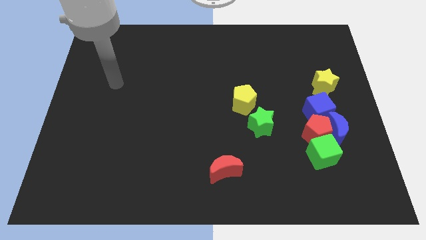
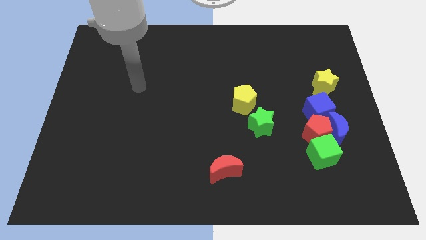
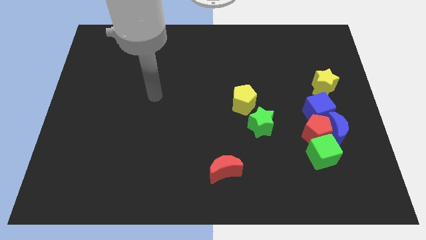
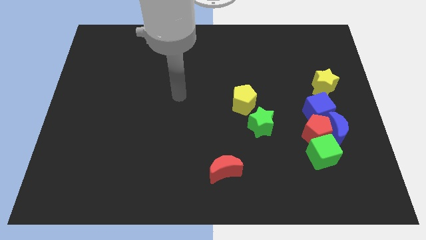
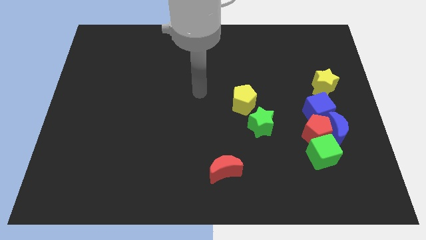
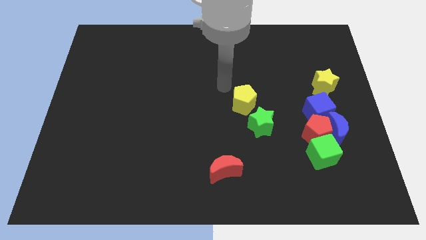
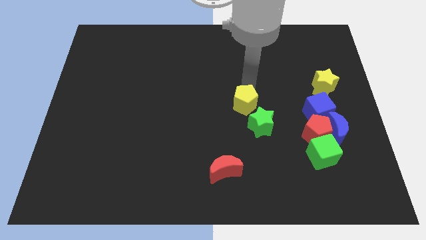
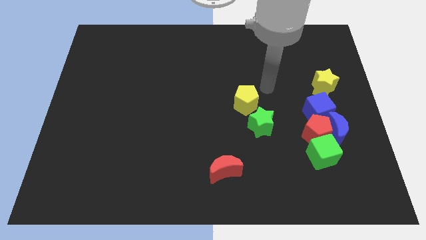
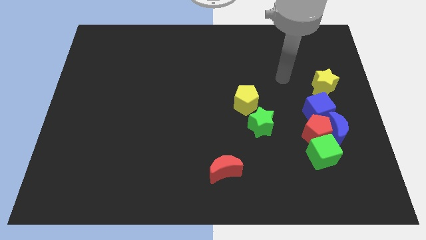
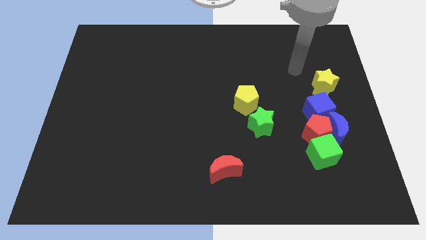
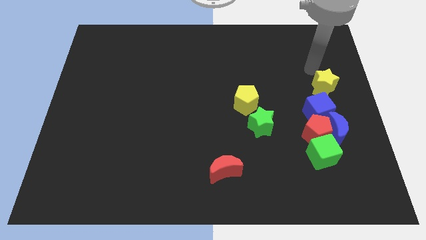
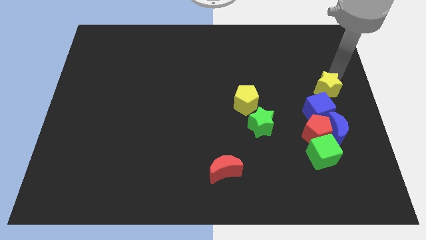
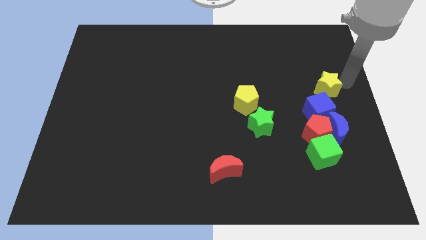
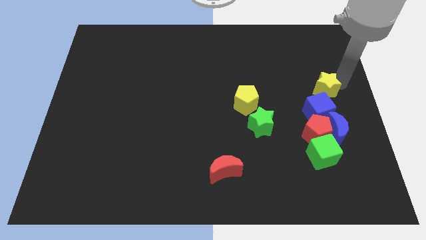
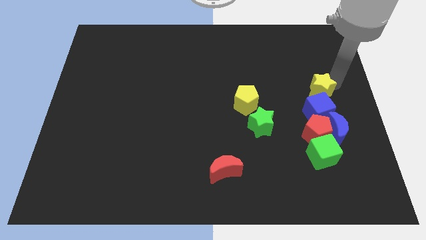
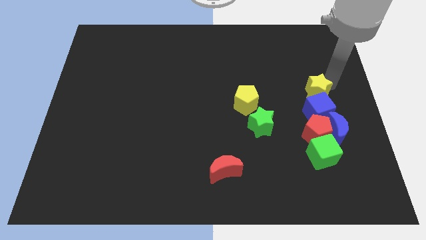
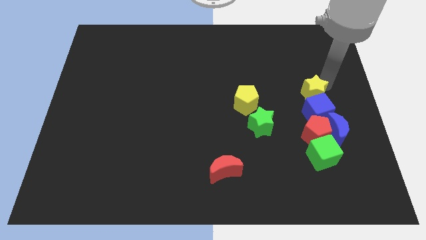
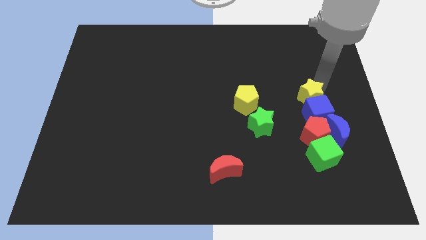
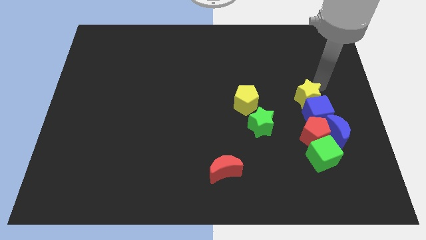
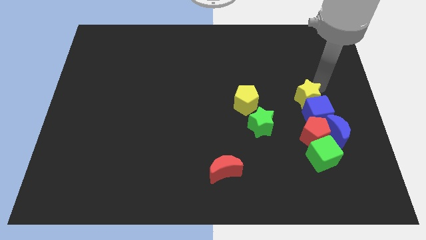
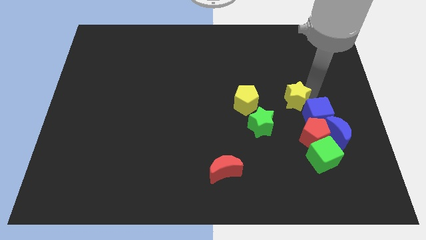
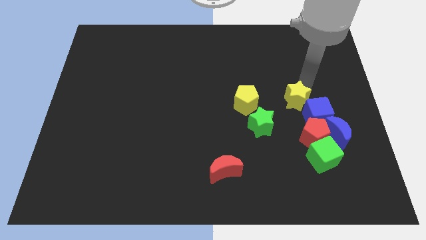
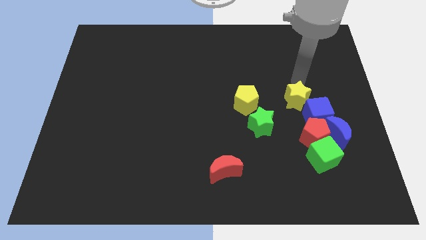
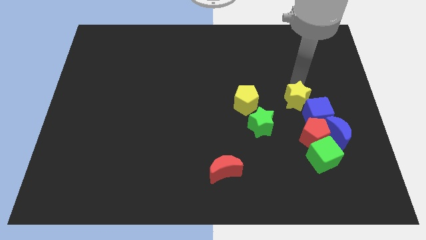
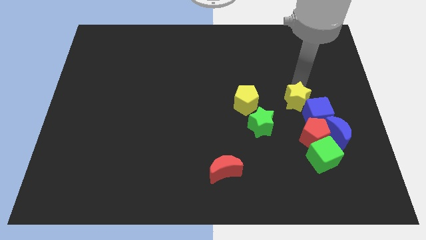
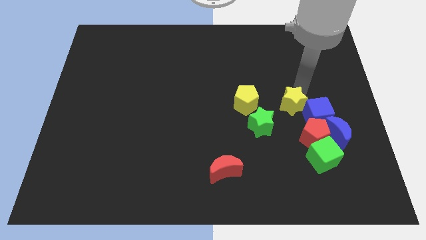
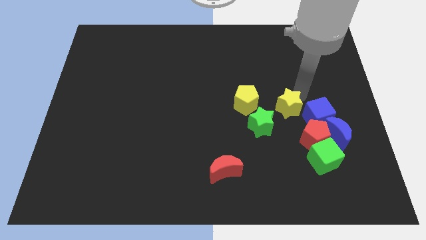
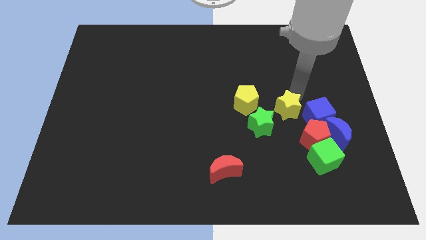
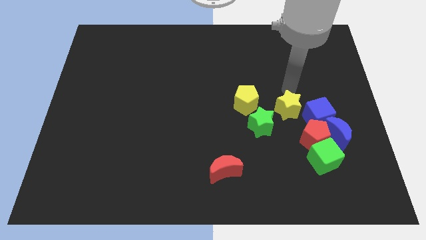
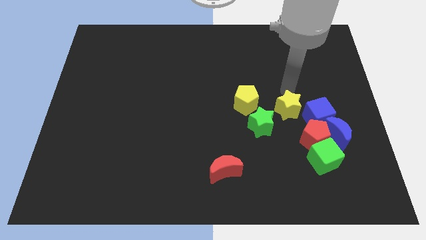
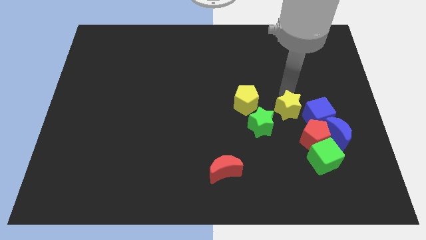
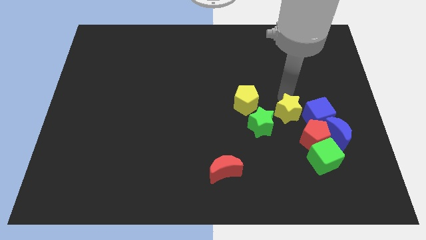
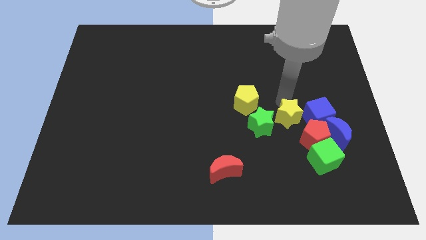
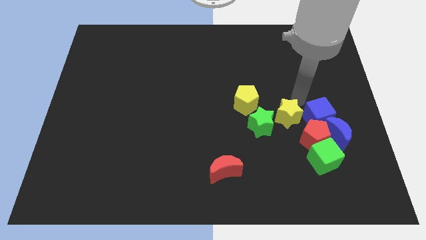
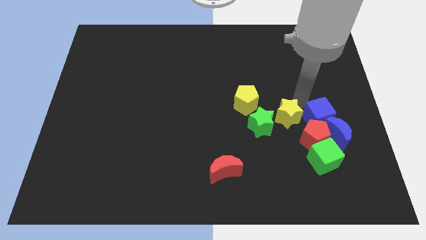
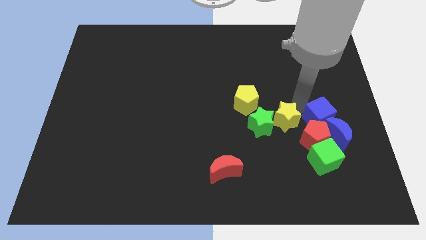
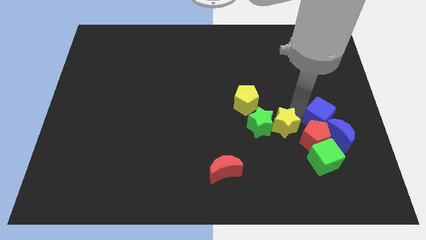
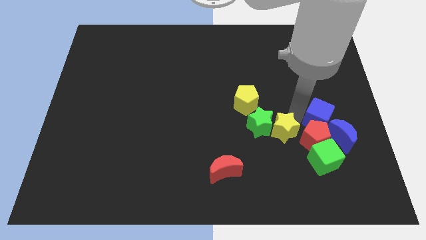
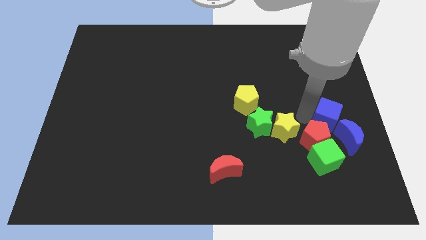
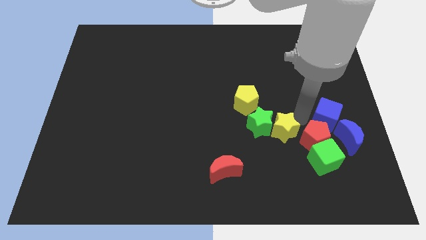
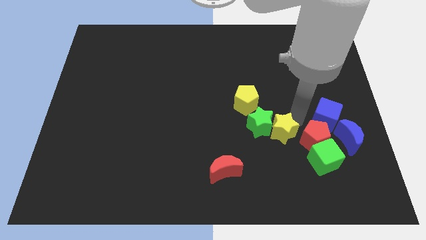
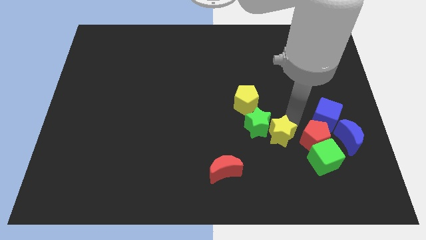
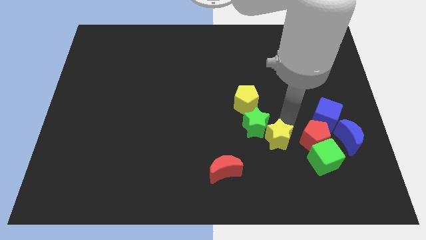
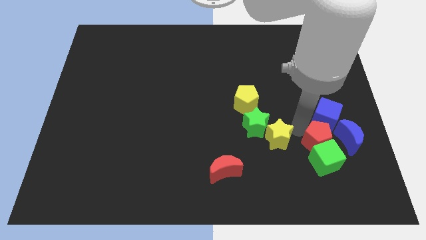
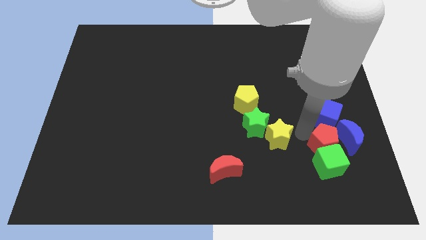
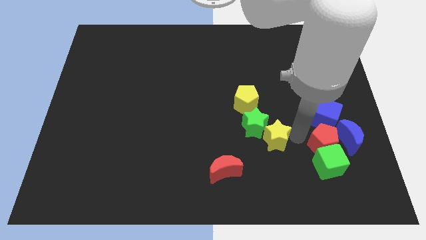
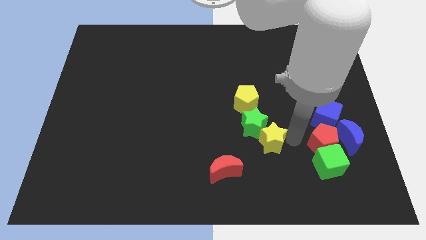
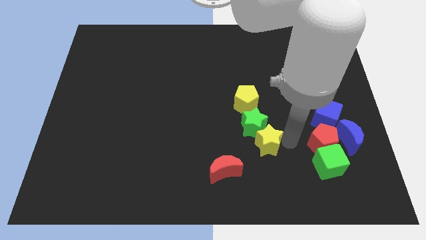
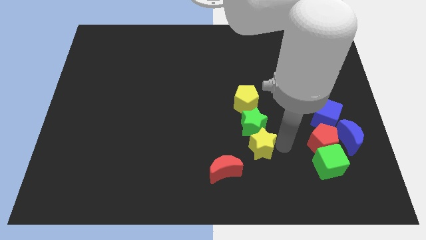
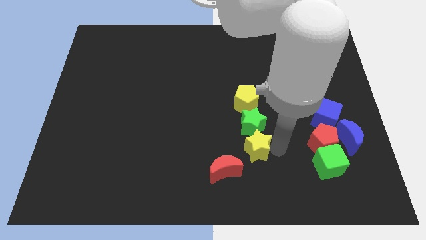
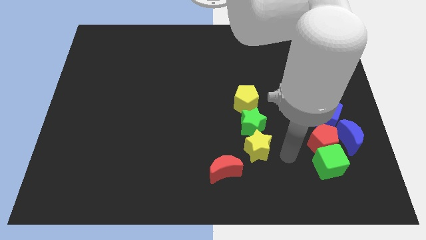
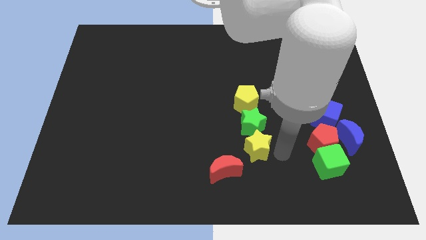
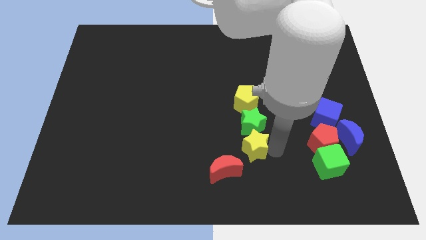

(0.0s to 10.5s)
slide the yellow star to the bottom left of the green star

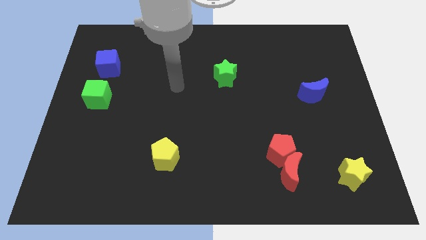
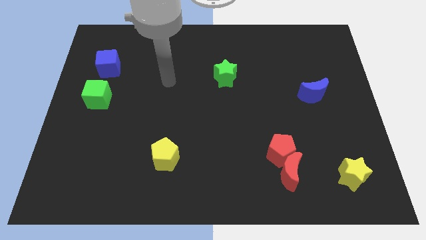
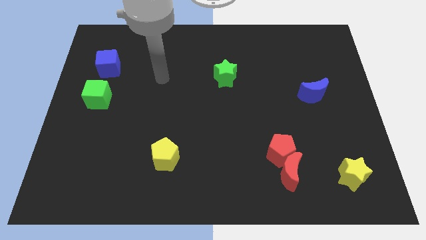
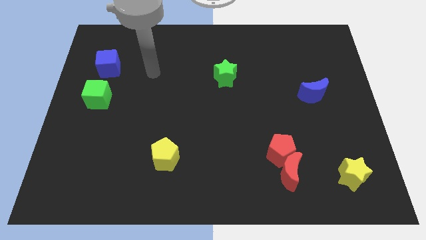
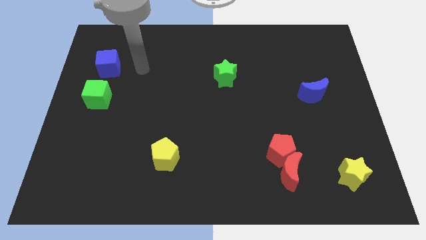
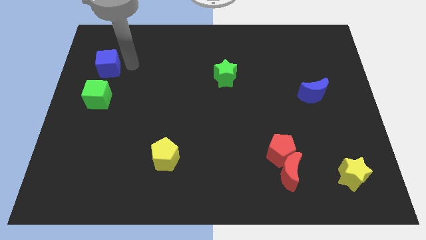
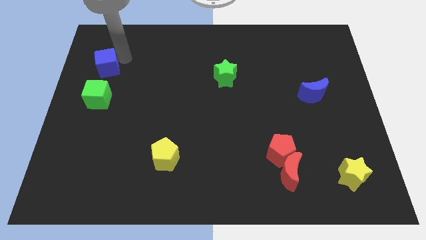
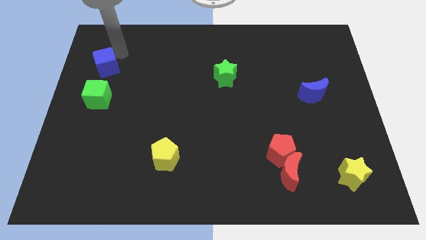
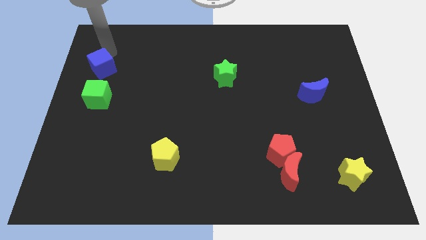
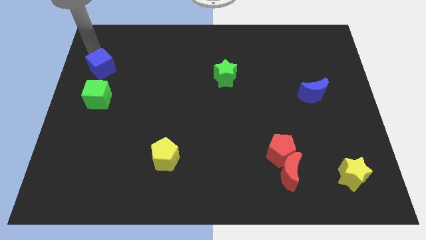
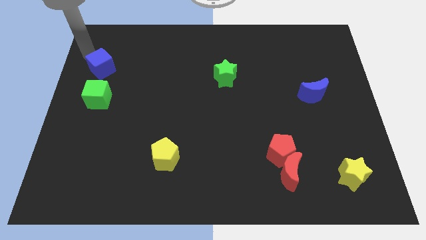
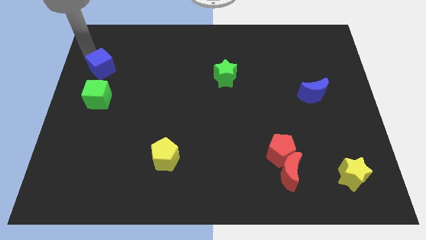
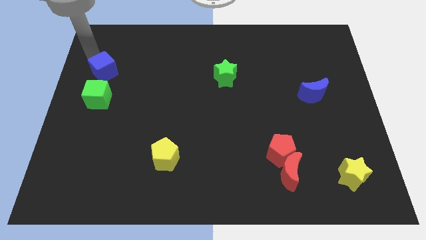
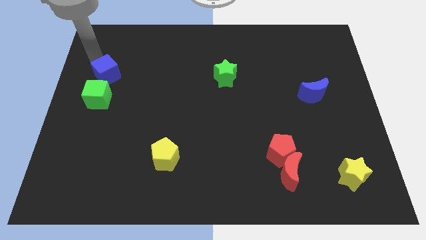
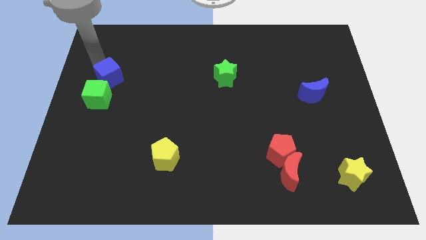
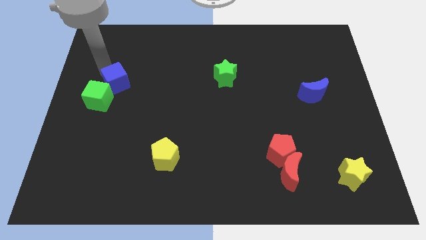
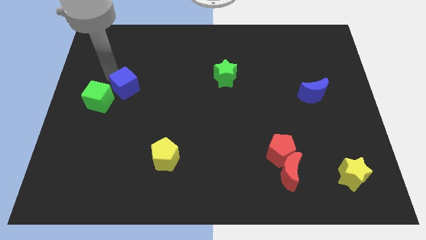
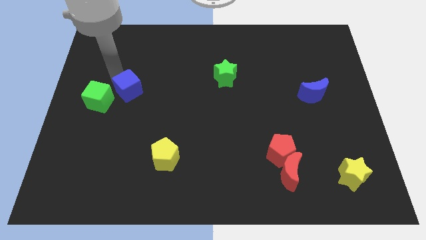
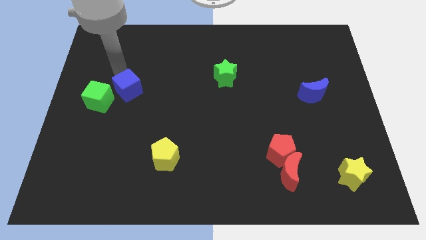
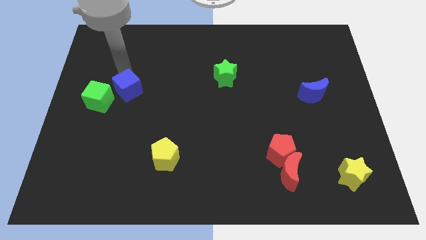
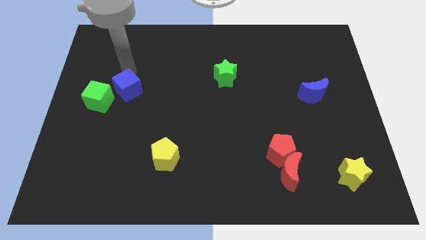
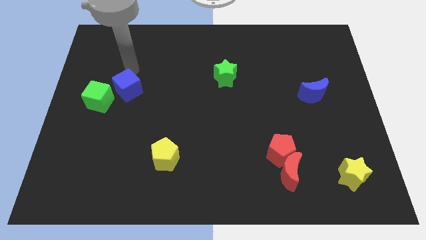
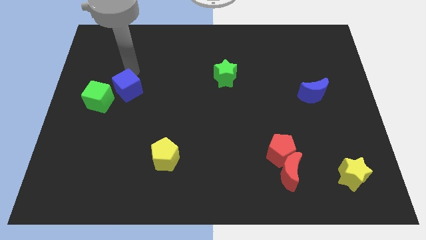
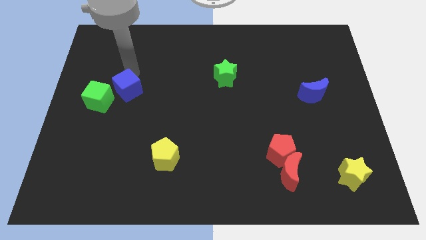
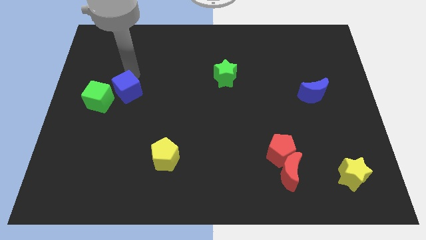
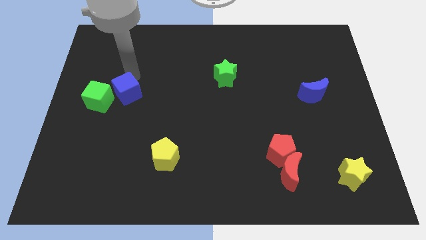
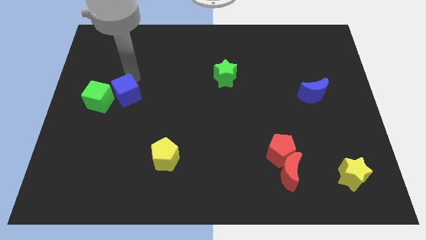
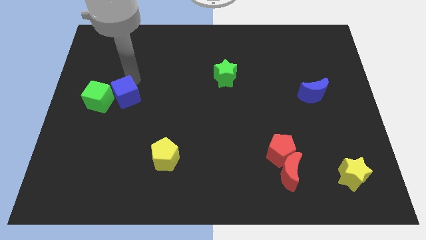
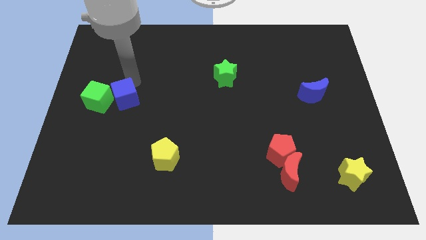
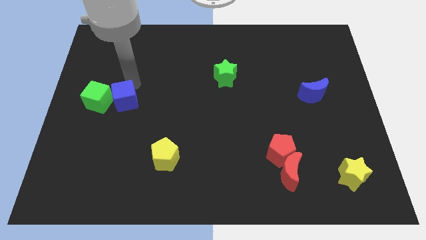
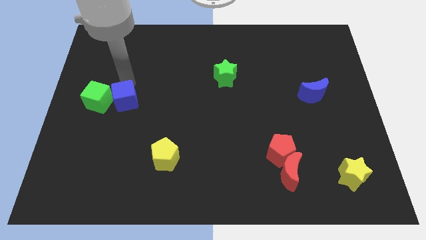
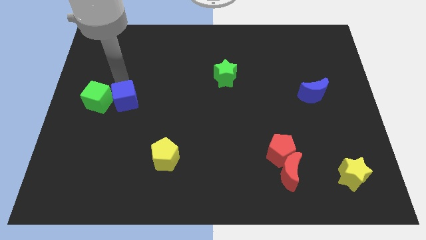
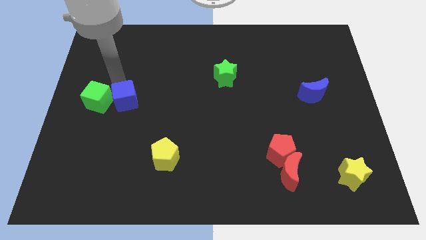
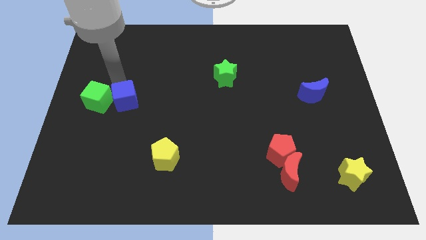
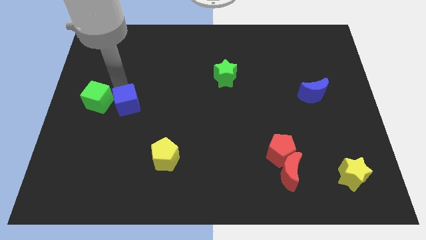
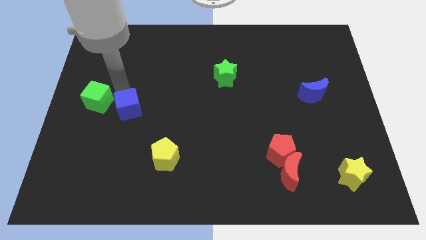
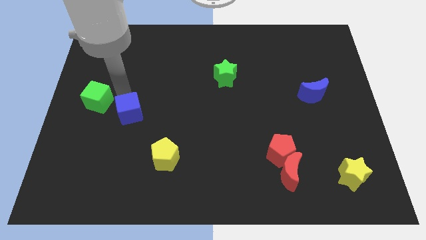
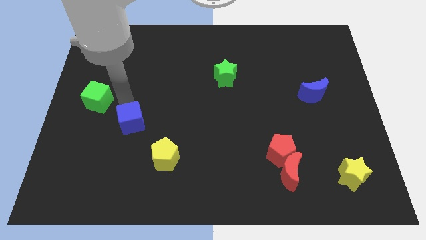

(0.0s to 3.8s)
push the blue cube to the top left side of the yellow pentagon
